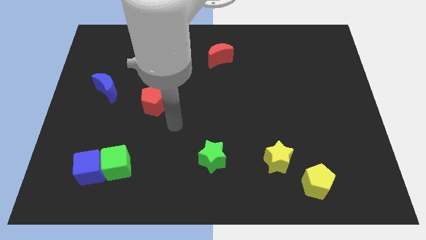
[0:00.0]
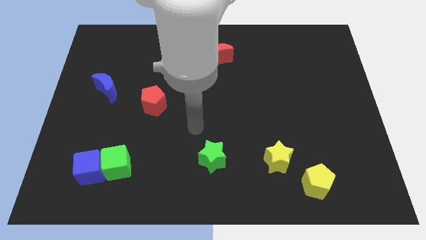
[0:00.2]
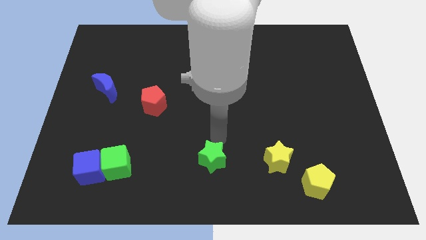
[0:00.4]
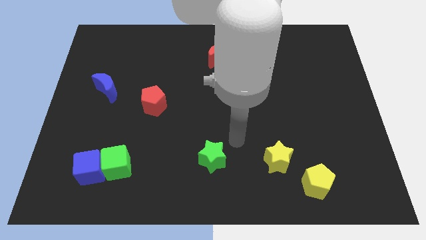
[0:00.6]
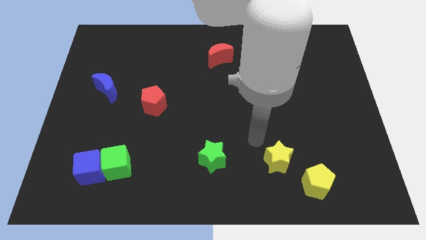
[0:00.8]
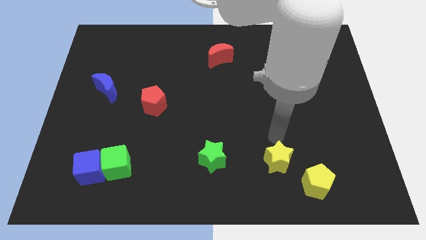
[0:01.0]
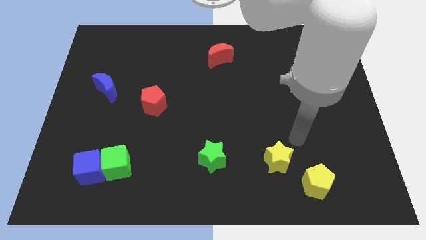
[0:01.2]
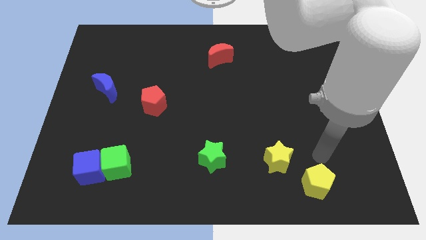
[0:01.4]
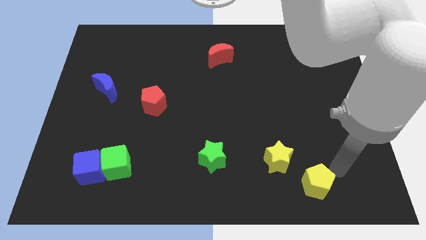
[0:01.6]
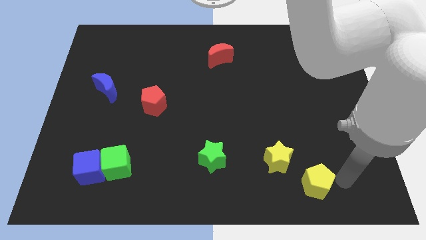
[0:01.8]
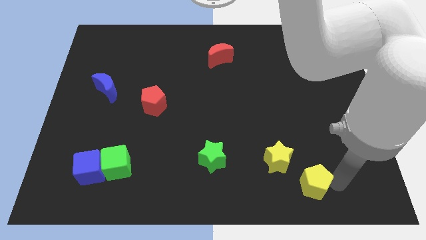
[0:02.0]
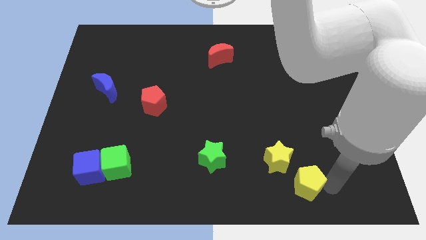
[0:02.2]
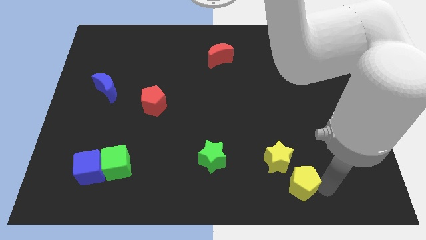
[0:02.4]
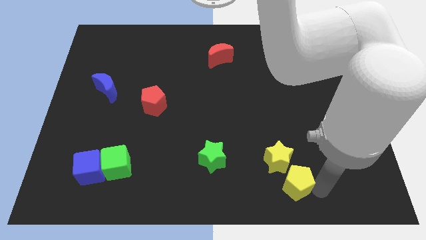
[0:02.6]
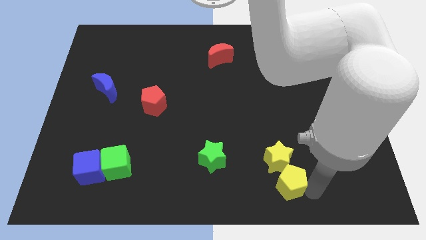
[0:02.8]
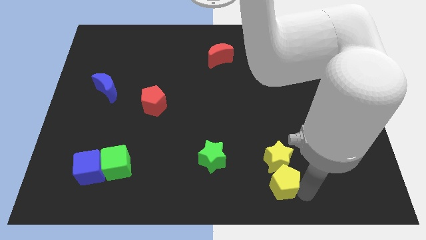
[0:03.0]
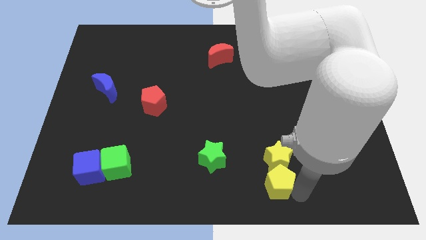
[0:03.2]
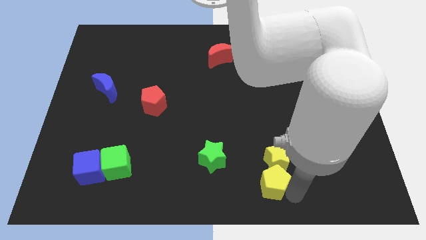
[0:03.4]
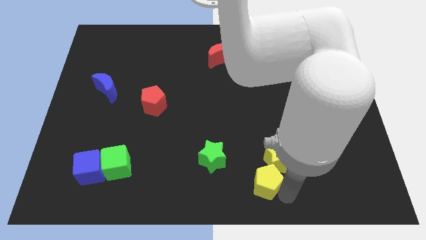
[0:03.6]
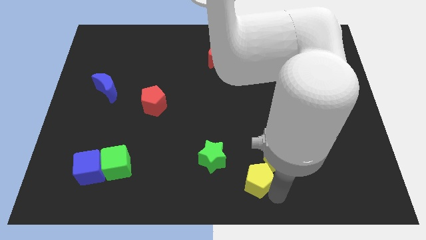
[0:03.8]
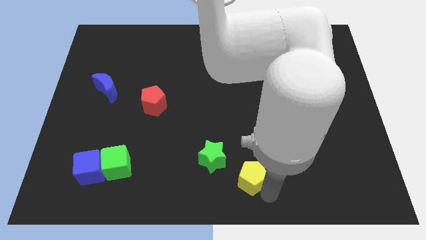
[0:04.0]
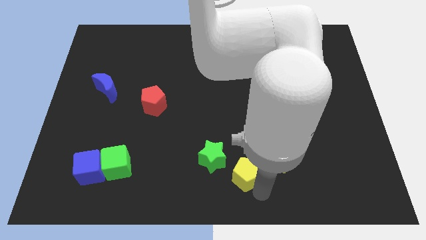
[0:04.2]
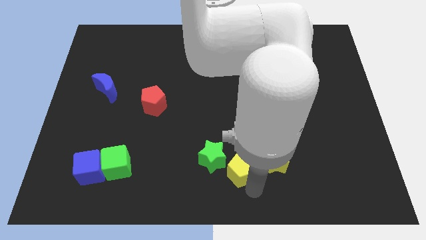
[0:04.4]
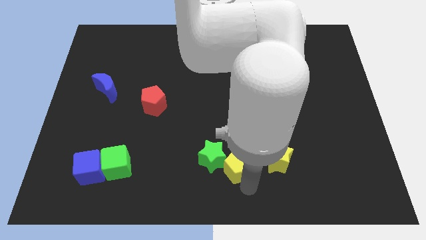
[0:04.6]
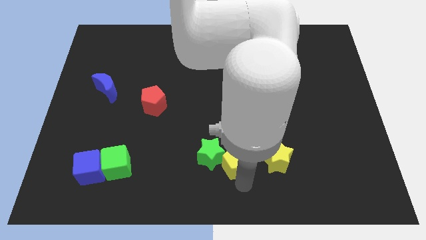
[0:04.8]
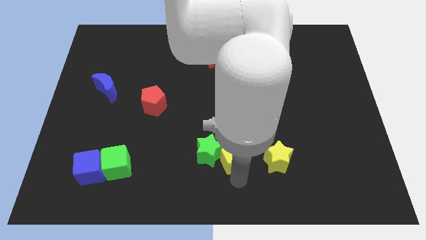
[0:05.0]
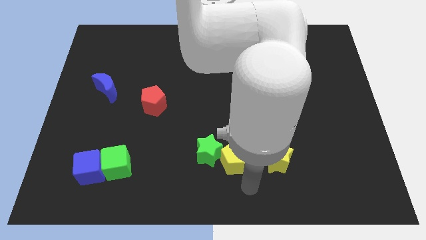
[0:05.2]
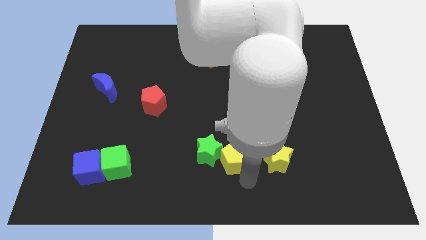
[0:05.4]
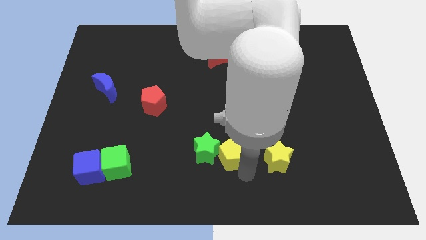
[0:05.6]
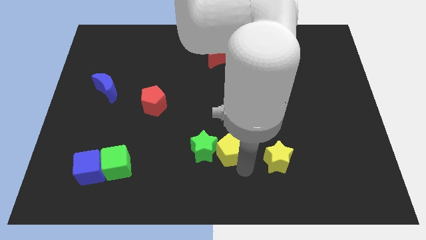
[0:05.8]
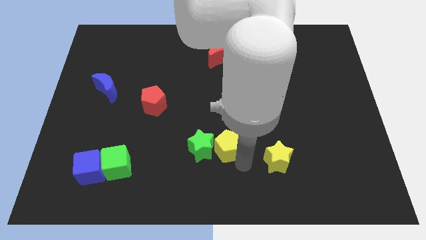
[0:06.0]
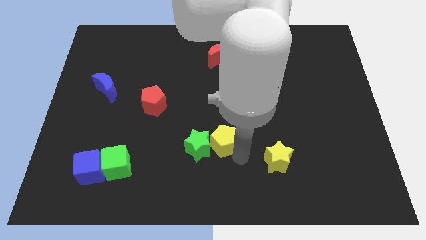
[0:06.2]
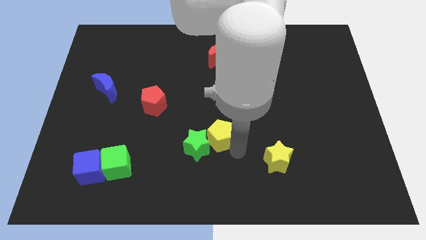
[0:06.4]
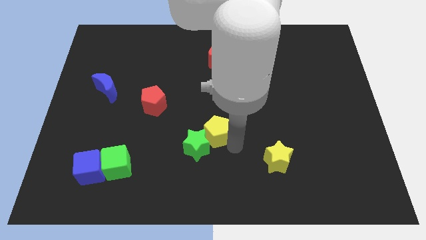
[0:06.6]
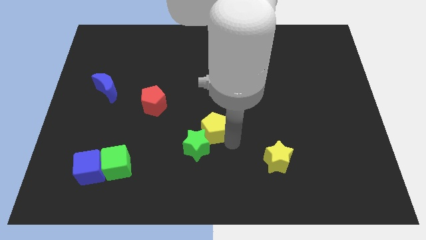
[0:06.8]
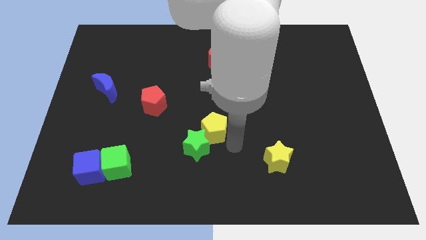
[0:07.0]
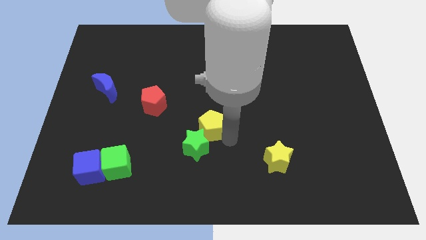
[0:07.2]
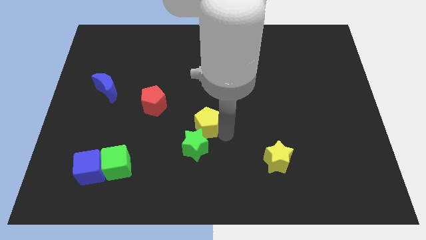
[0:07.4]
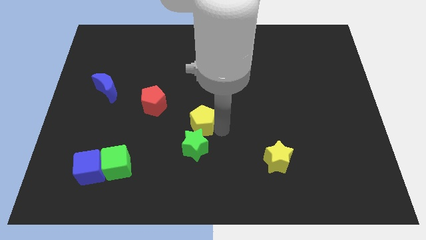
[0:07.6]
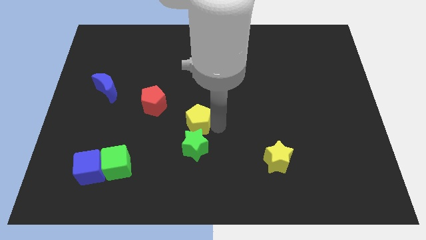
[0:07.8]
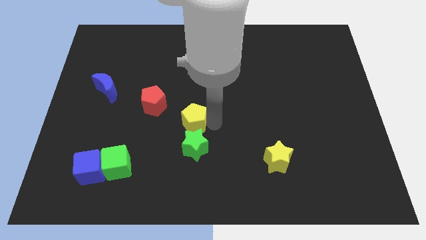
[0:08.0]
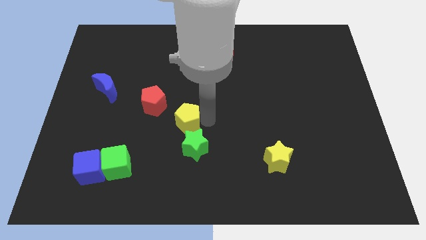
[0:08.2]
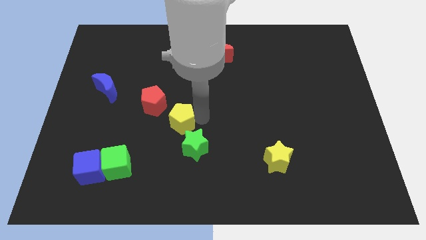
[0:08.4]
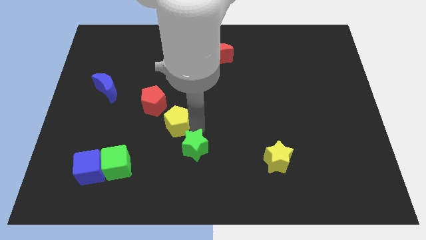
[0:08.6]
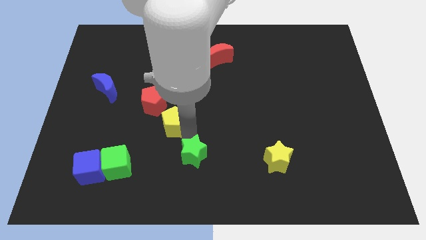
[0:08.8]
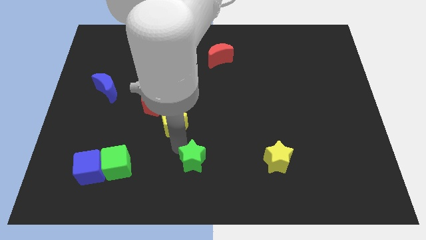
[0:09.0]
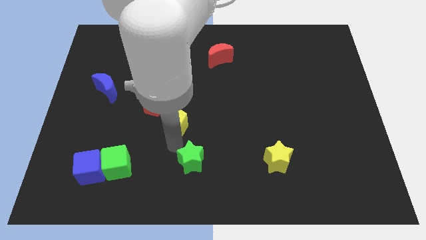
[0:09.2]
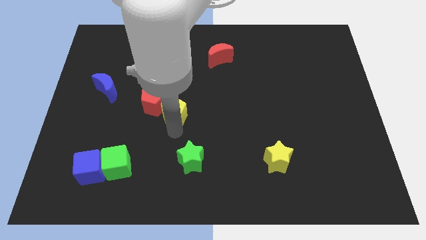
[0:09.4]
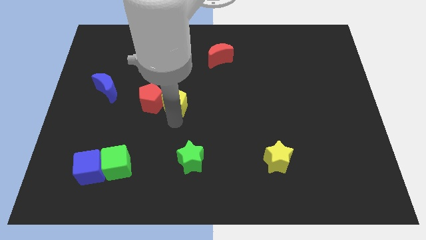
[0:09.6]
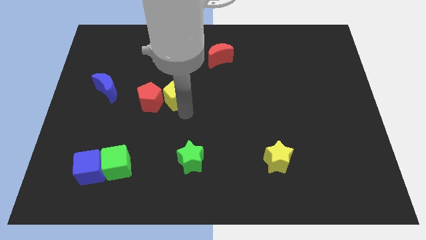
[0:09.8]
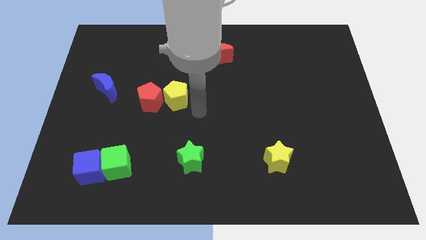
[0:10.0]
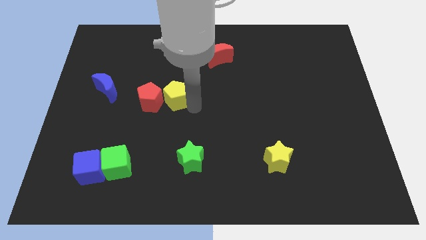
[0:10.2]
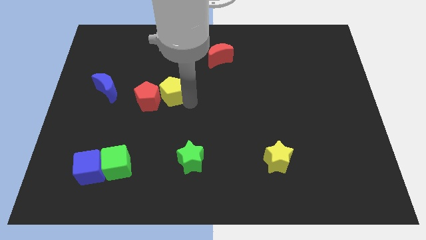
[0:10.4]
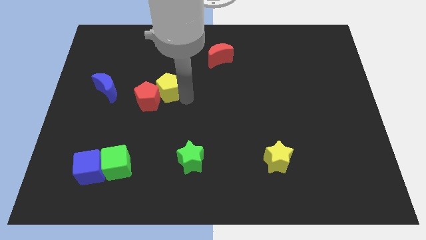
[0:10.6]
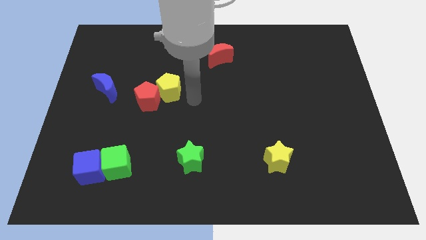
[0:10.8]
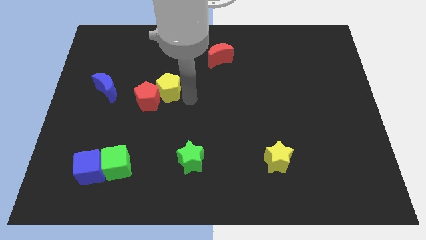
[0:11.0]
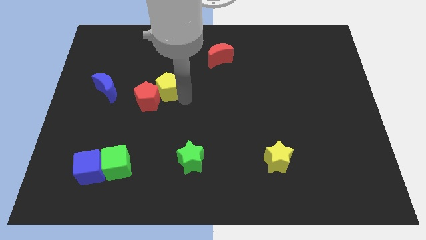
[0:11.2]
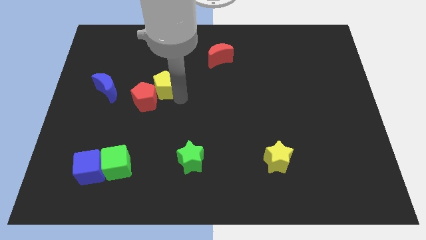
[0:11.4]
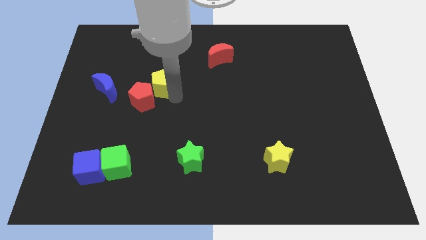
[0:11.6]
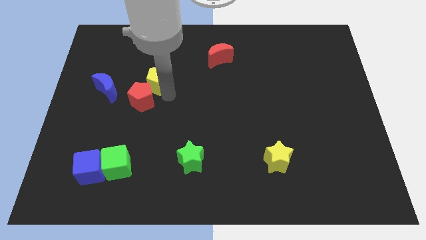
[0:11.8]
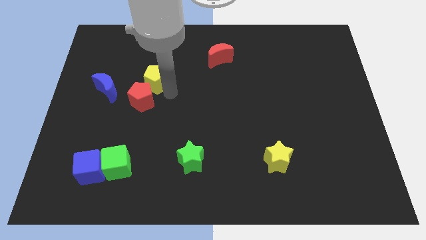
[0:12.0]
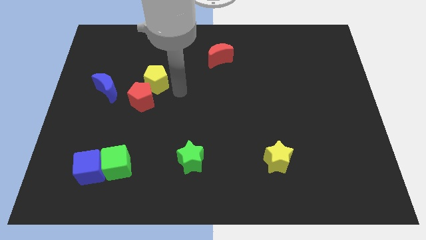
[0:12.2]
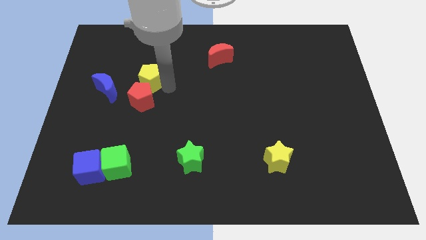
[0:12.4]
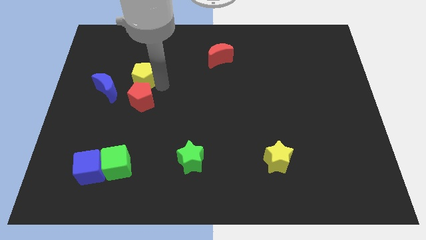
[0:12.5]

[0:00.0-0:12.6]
move the yellow pentagon to the top right of the blue moon
